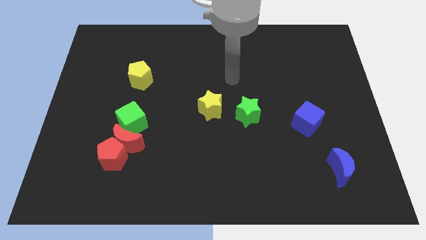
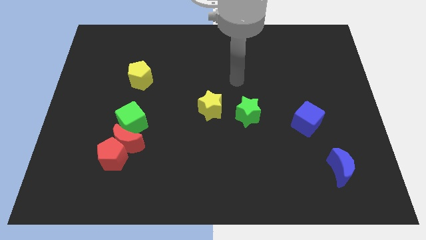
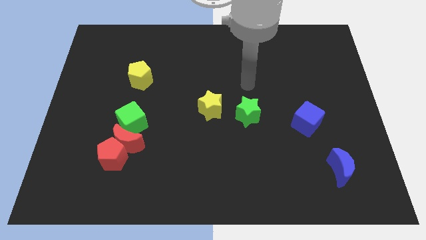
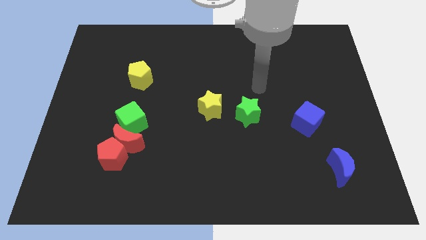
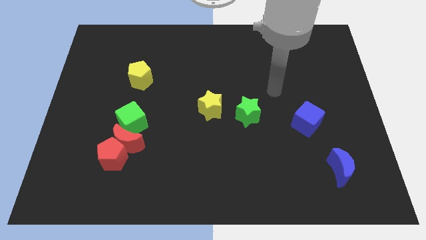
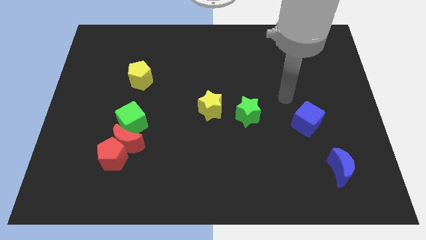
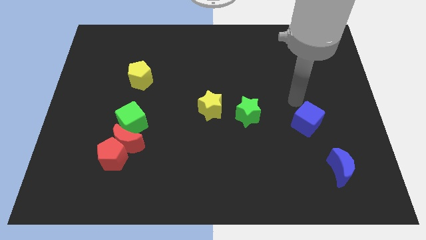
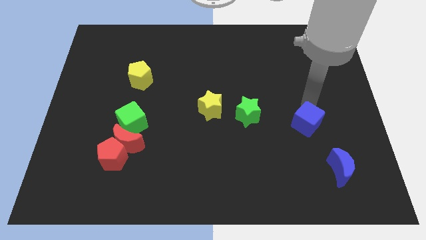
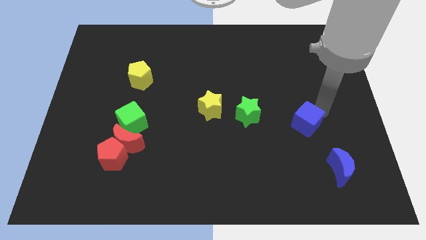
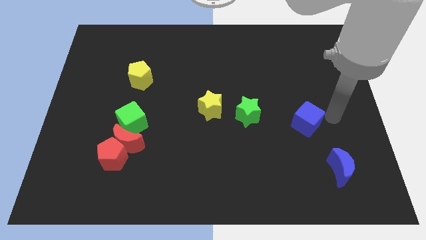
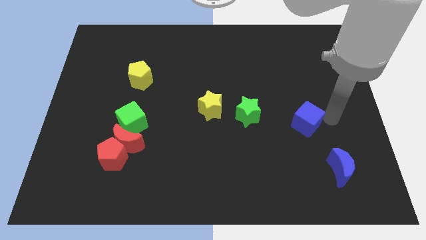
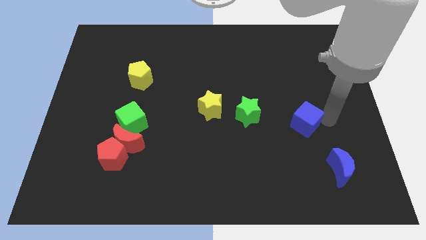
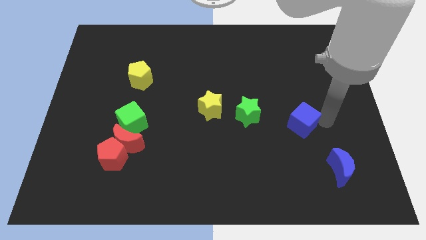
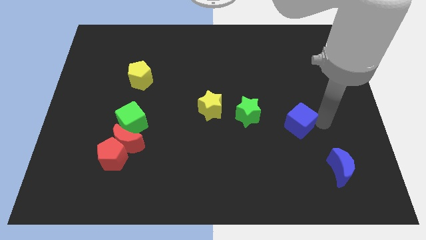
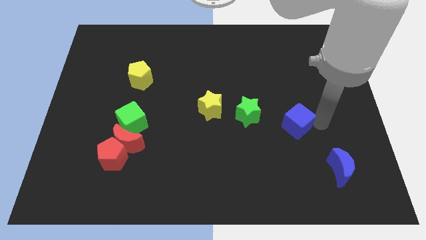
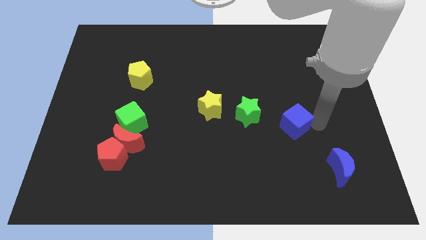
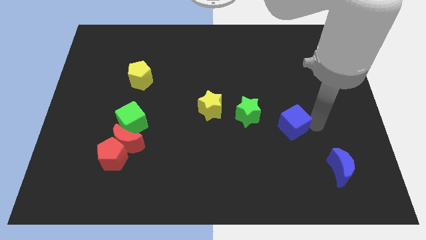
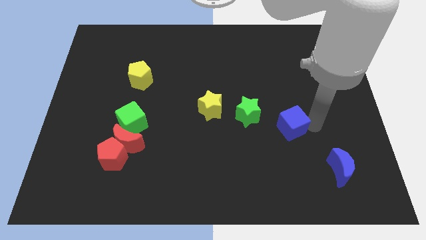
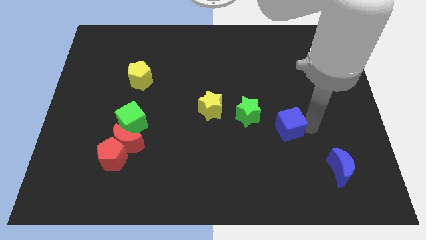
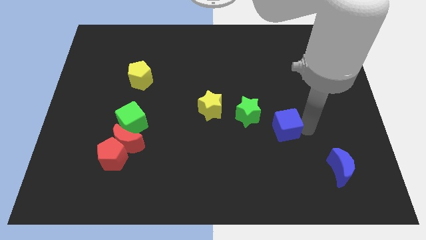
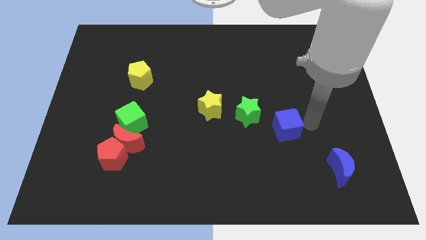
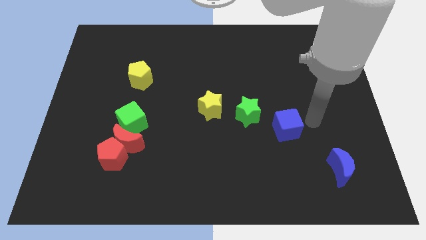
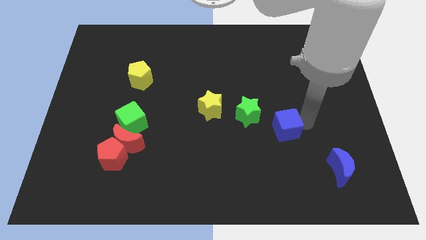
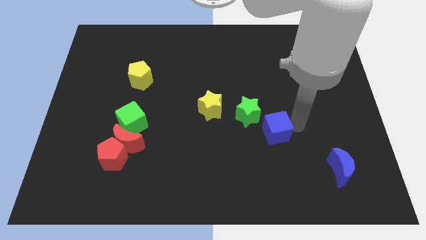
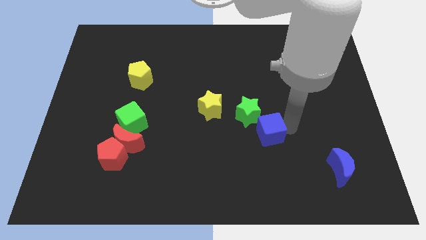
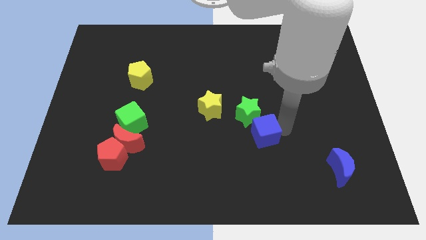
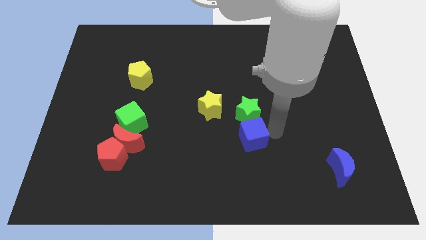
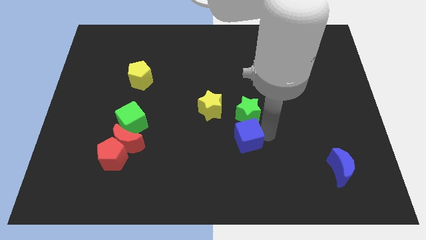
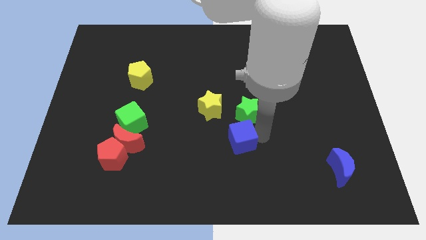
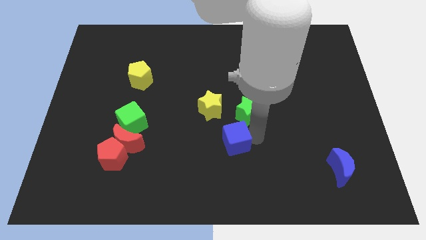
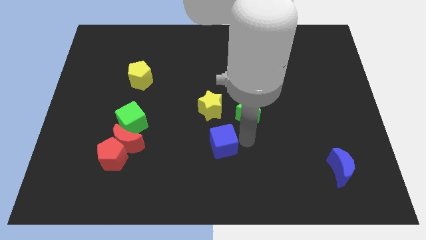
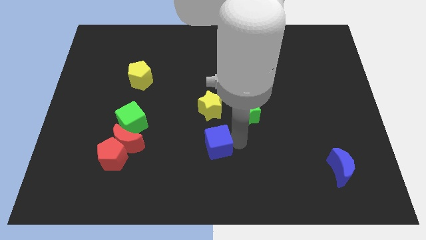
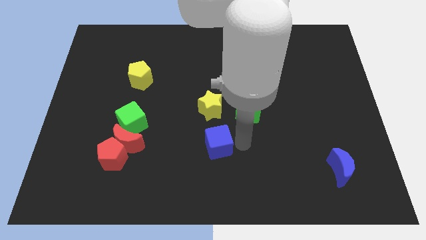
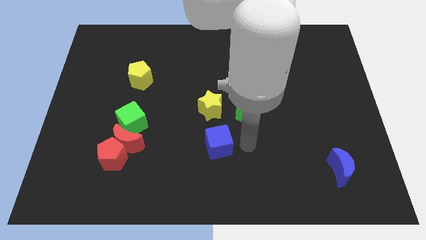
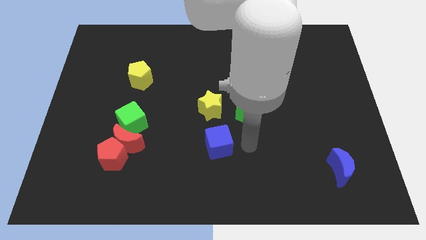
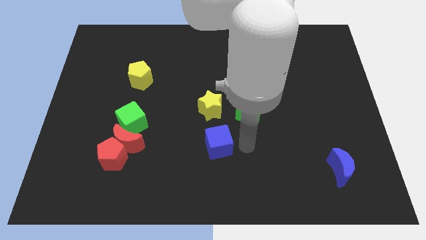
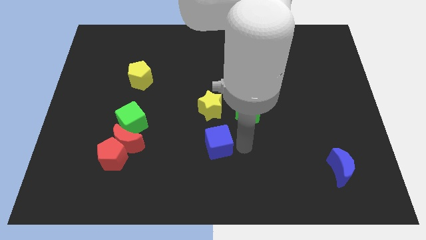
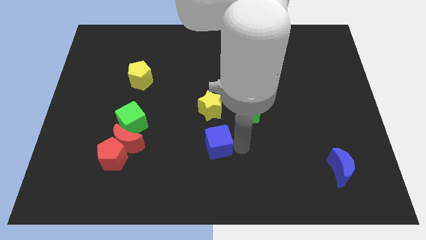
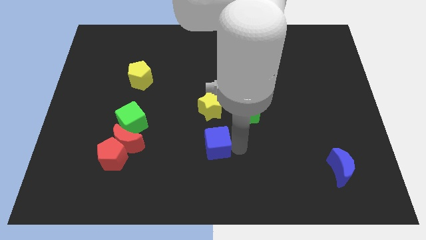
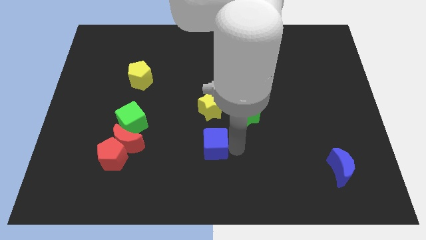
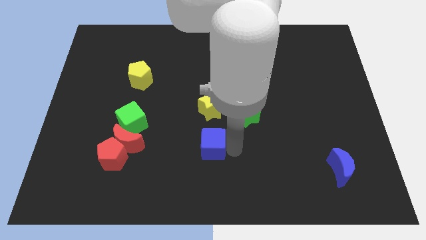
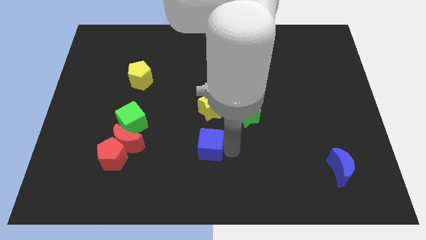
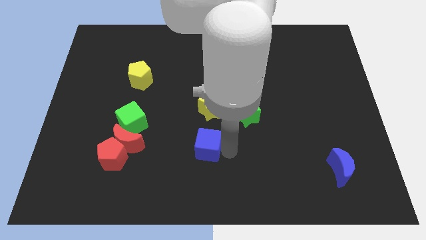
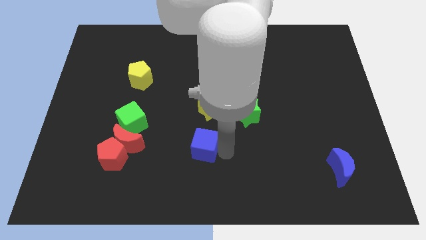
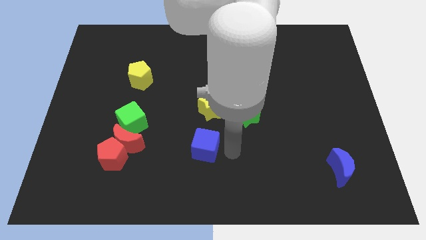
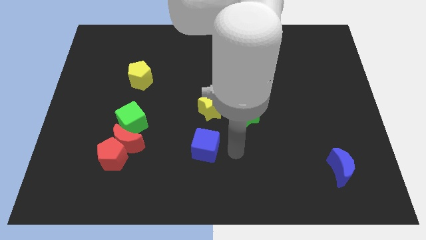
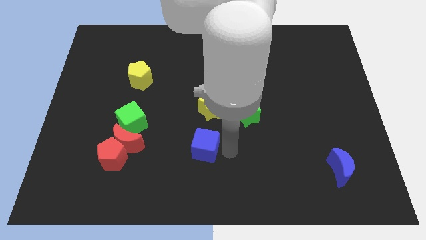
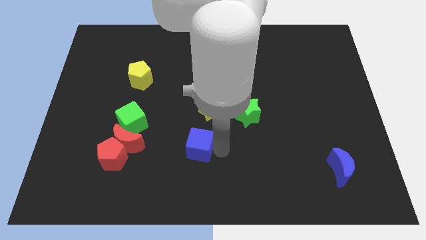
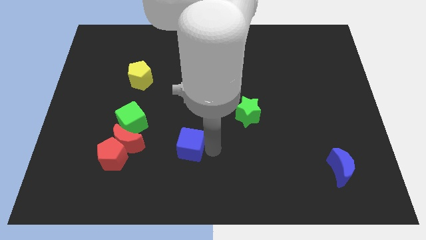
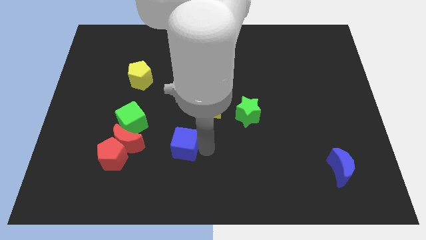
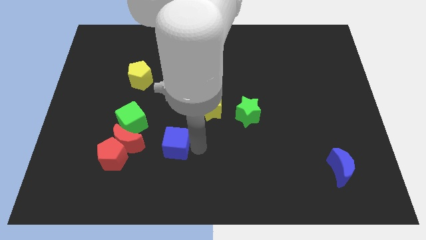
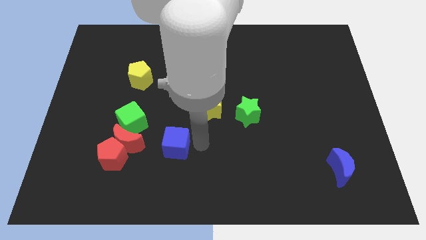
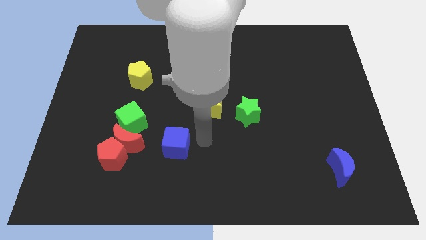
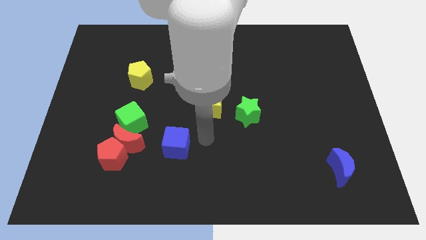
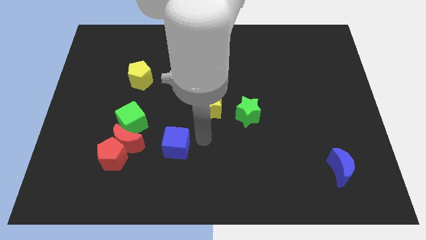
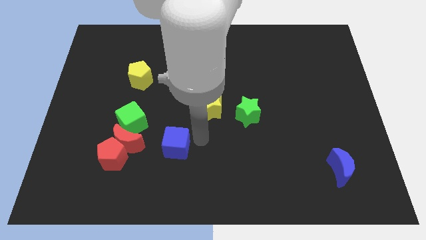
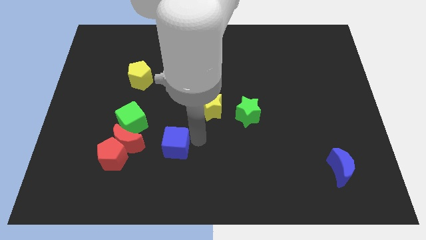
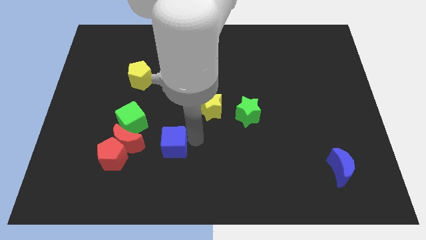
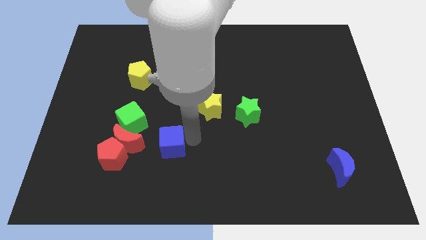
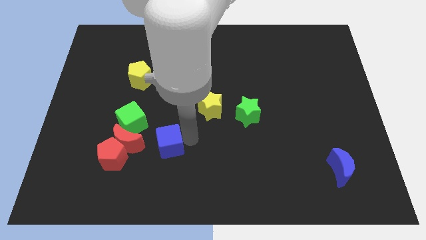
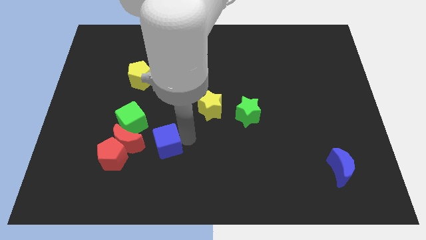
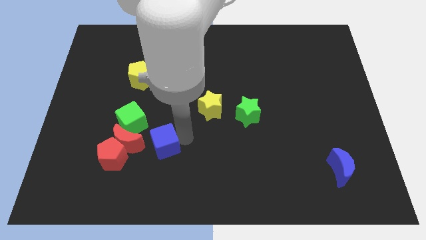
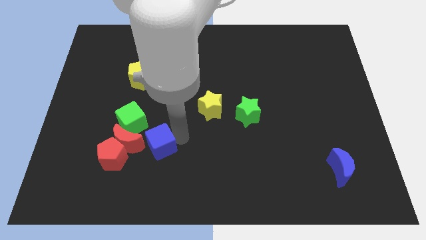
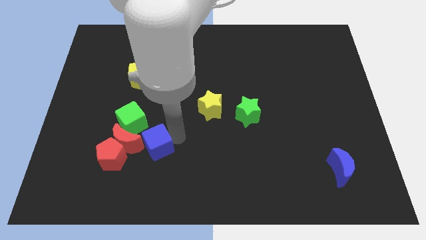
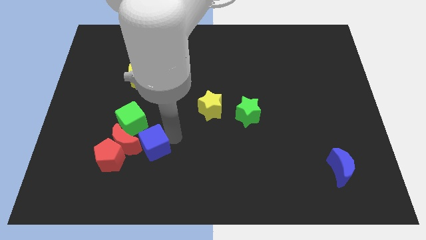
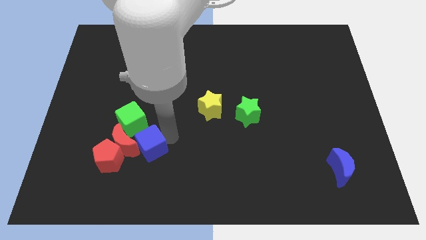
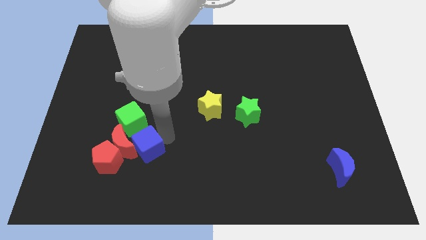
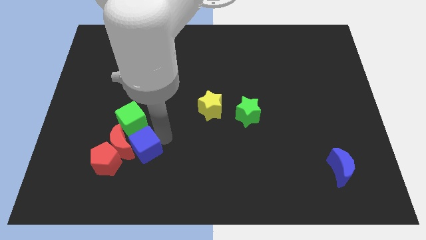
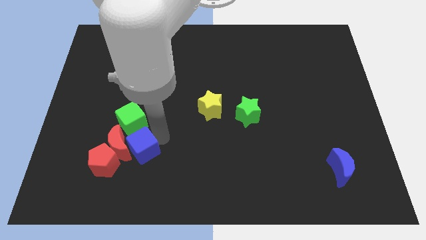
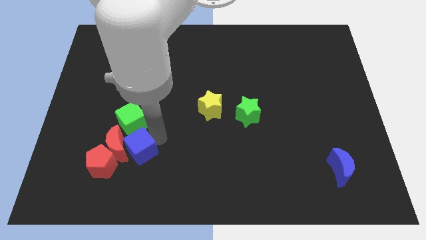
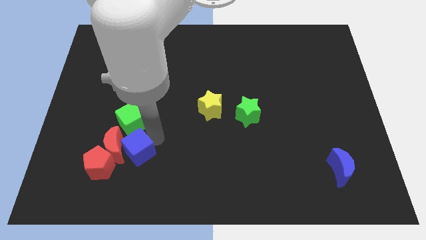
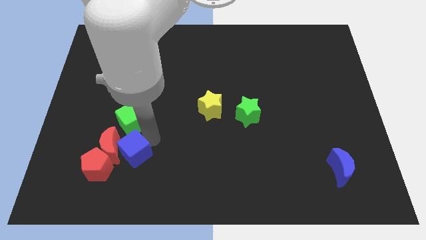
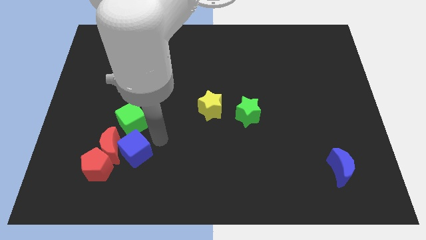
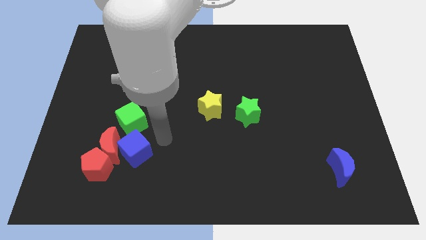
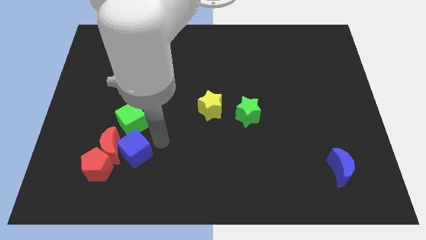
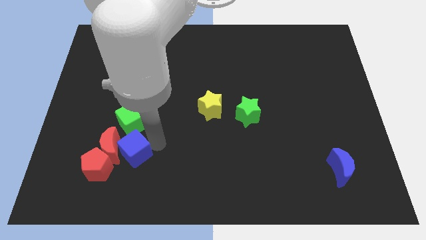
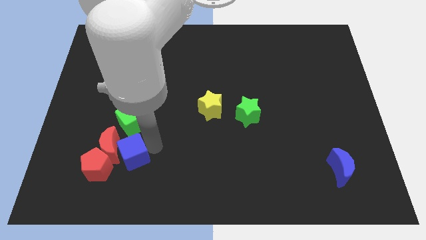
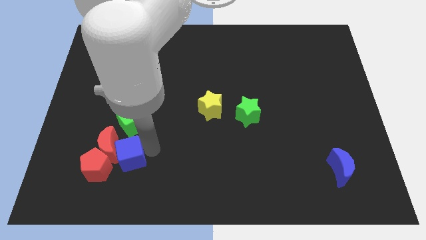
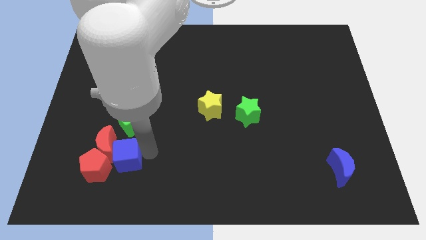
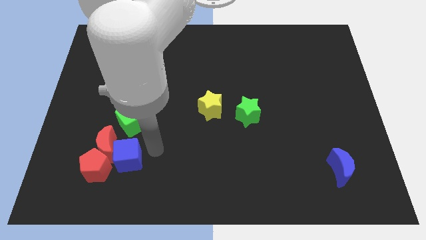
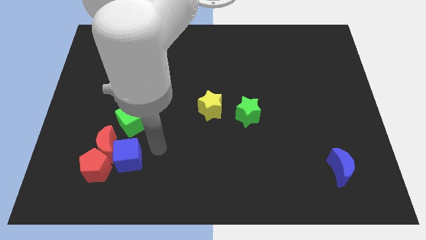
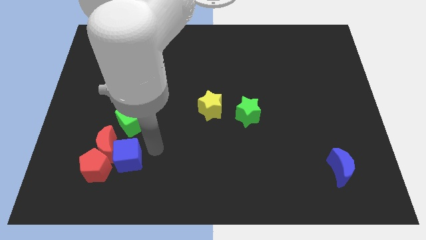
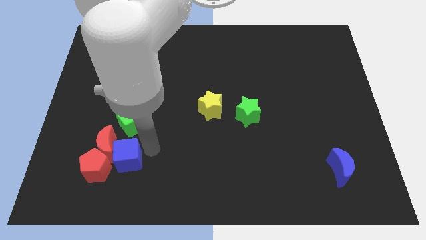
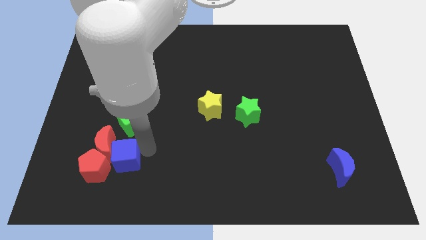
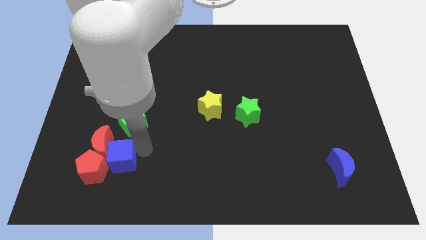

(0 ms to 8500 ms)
move the blue cube towards the red pentagon
